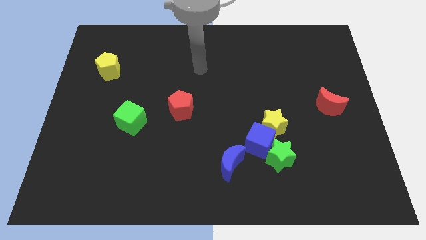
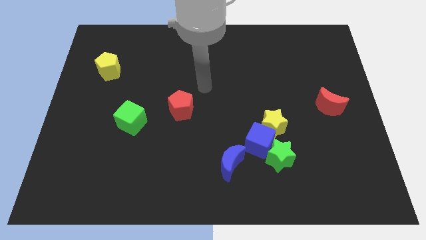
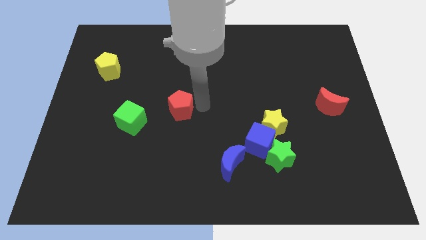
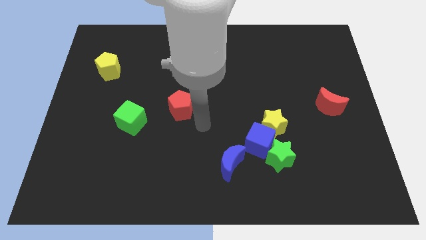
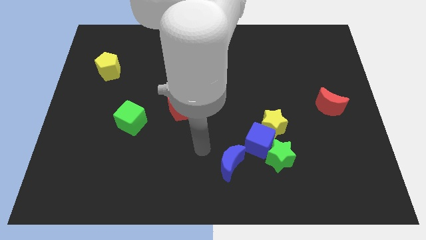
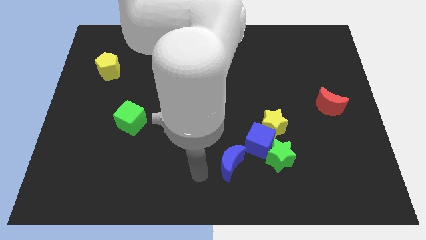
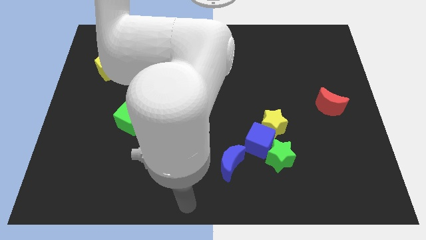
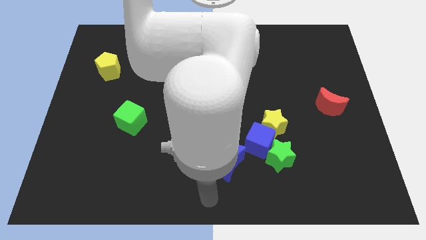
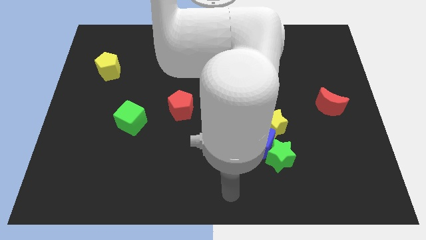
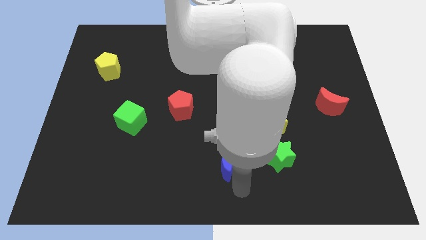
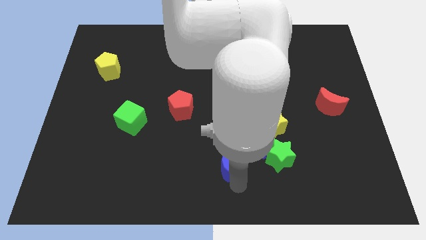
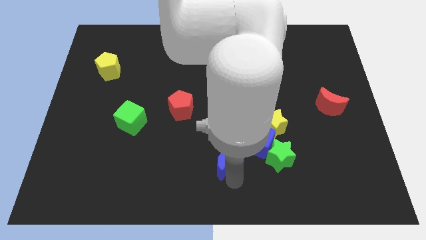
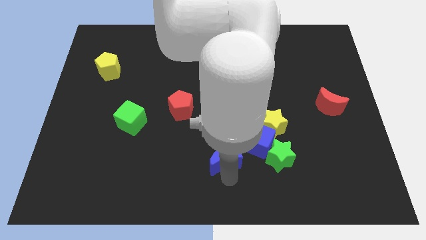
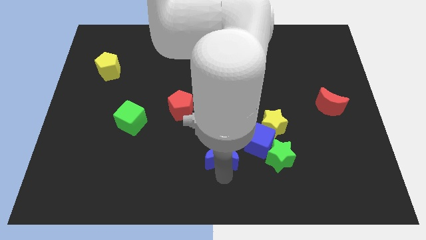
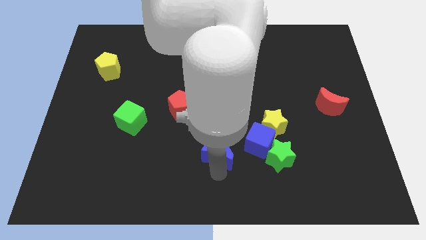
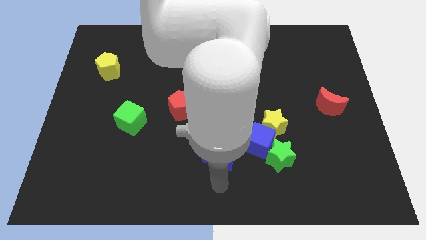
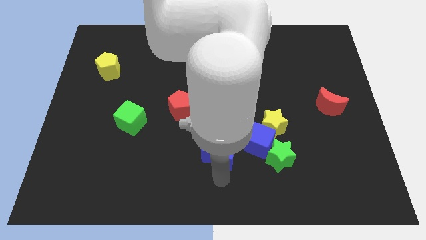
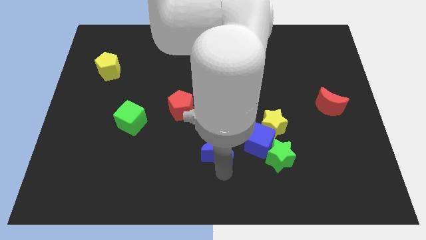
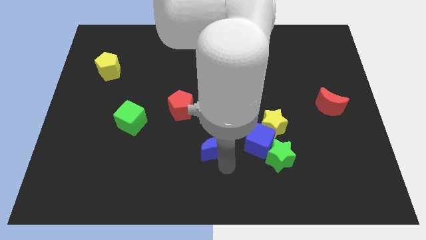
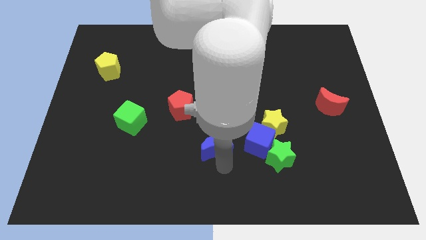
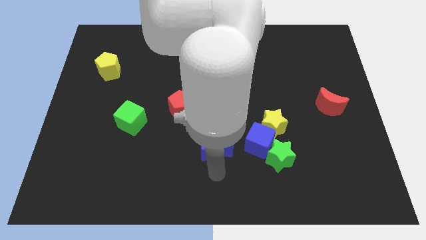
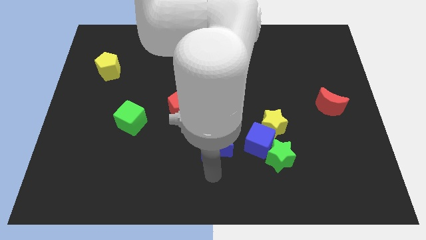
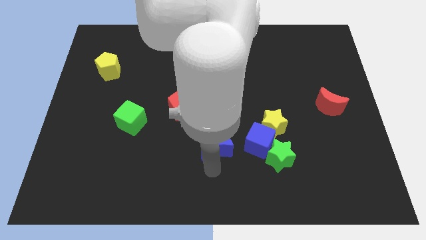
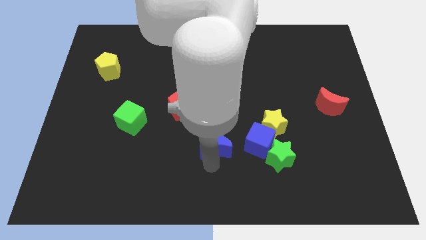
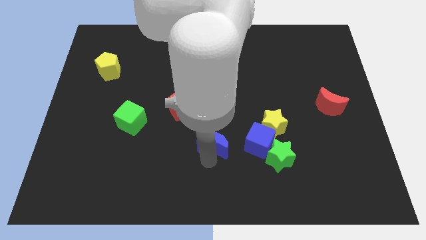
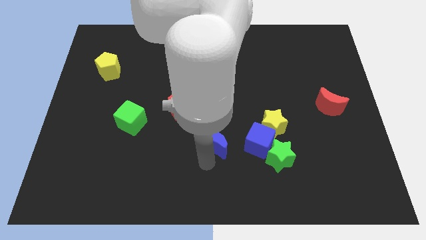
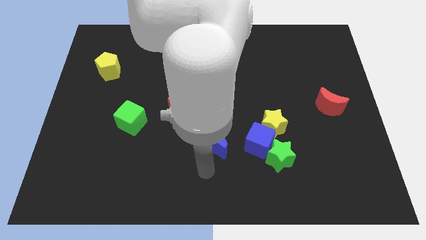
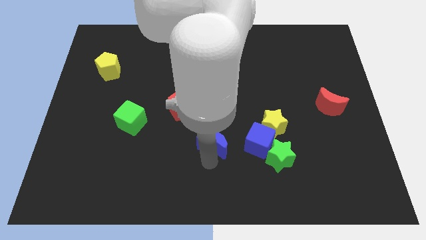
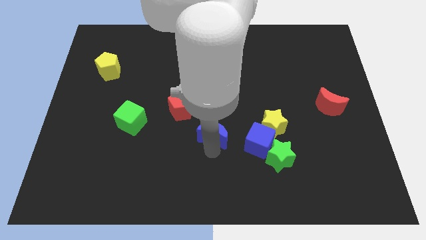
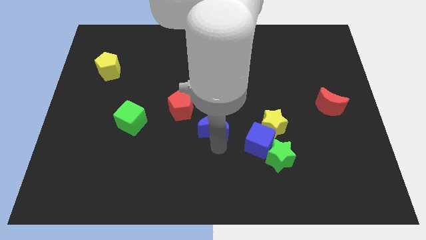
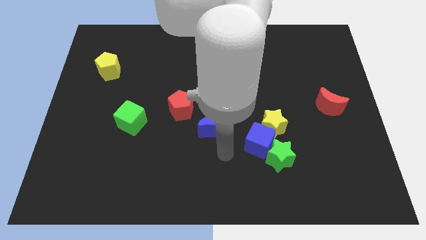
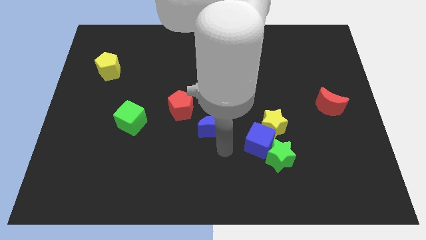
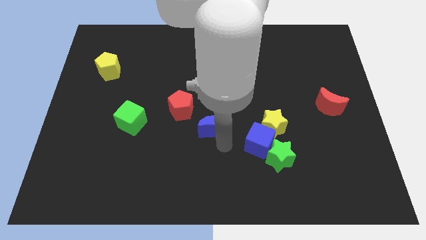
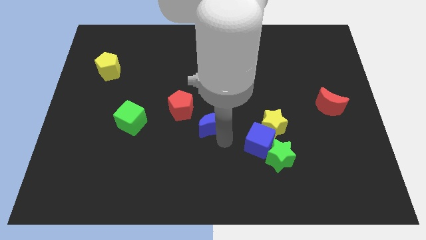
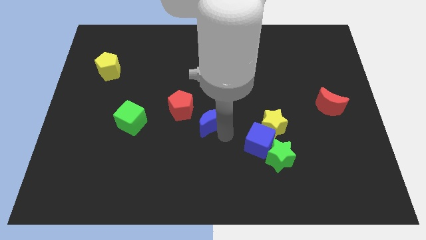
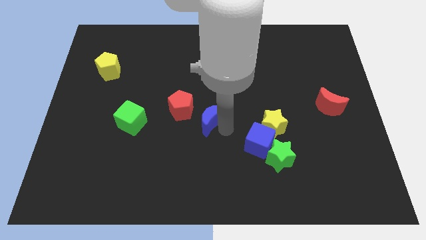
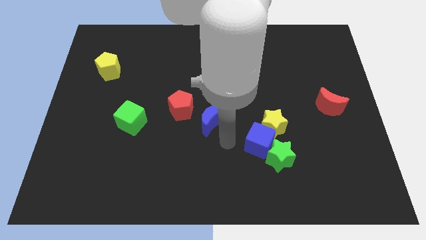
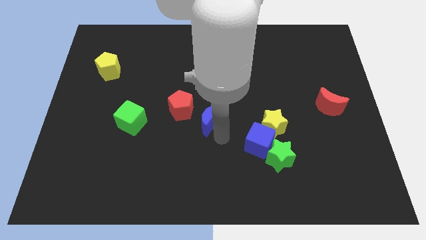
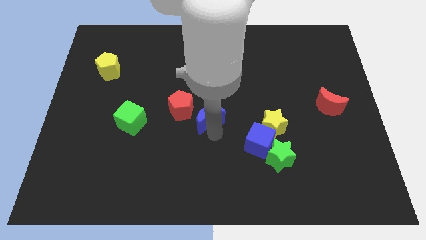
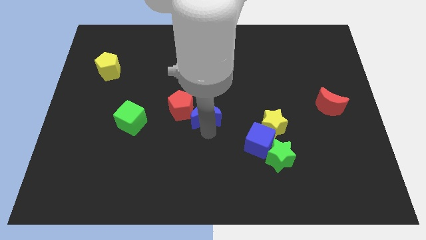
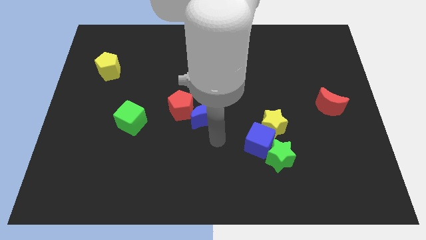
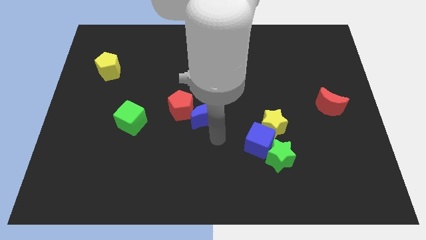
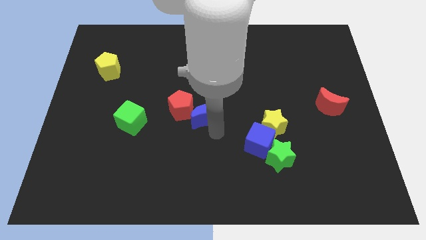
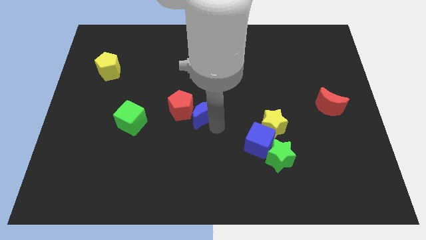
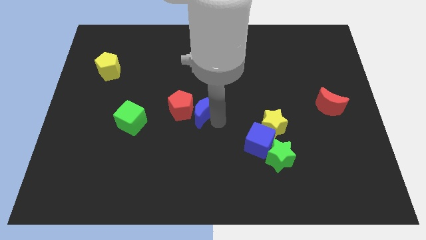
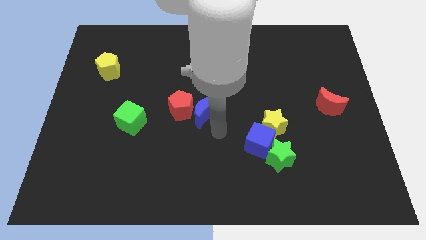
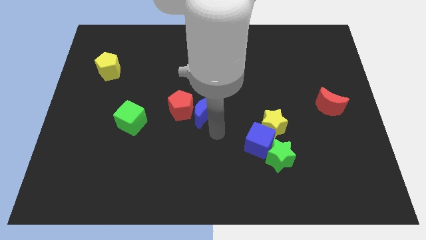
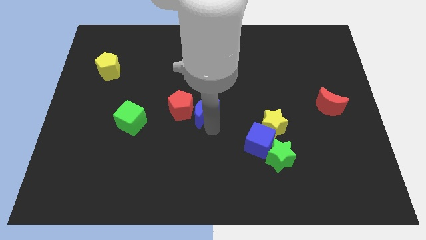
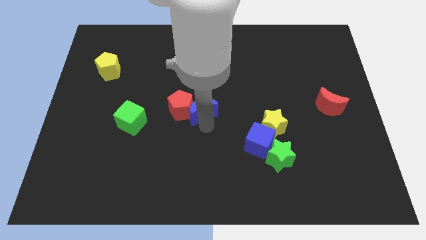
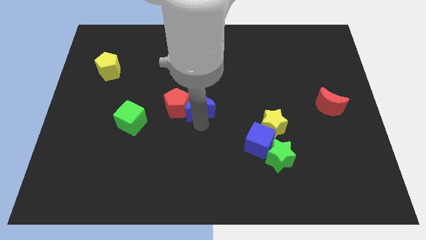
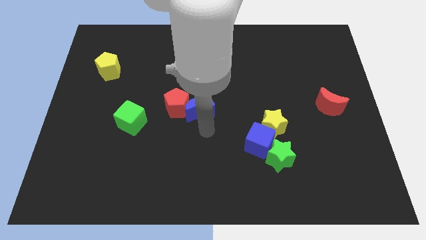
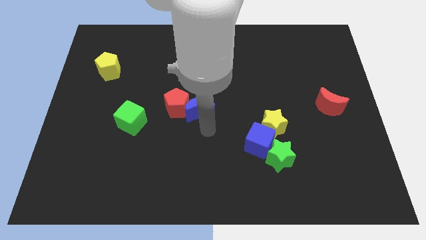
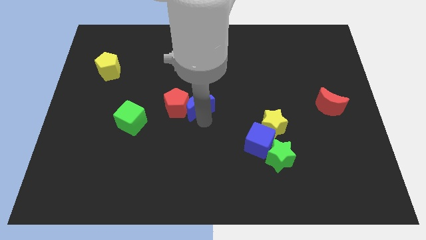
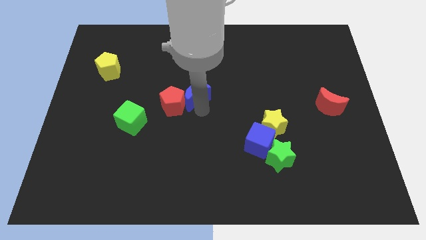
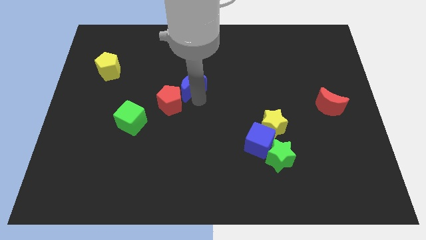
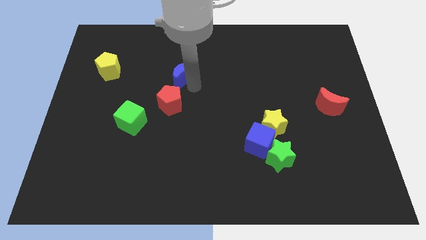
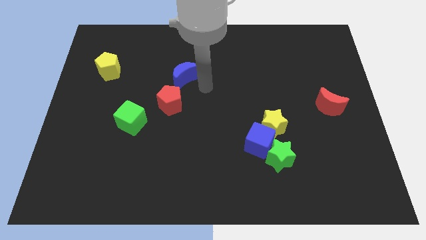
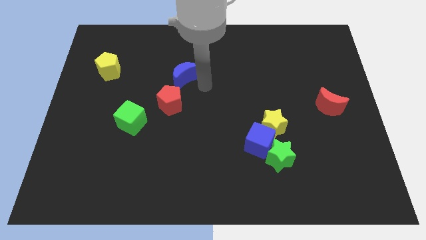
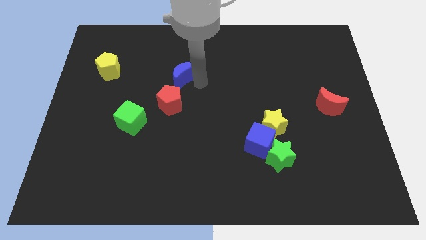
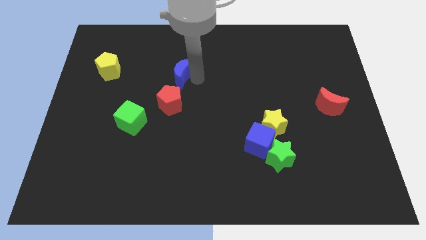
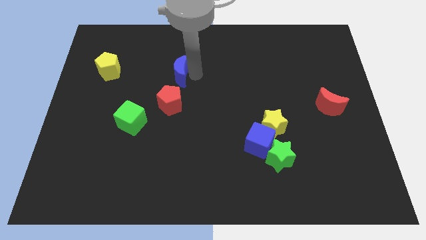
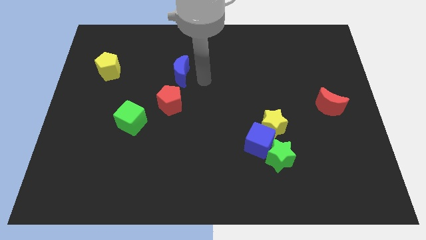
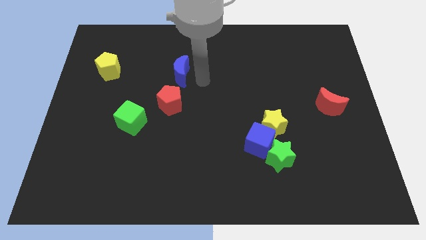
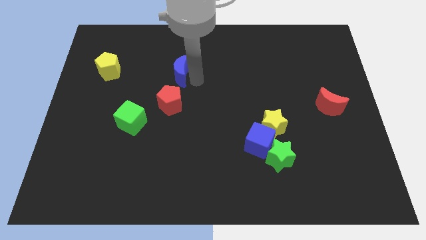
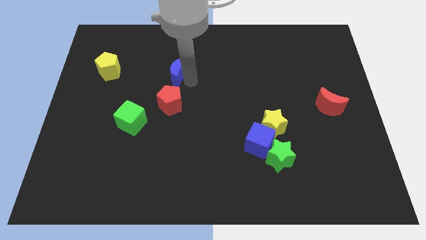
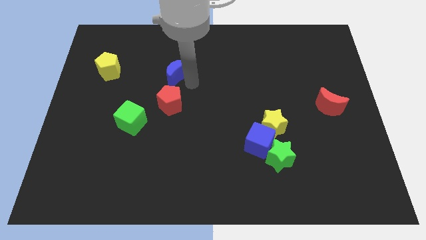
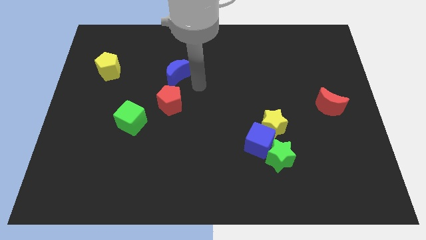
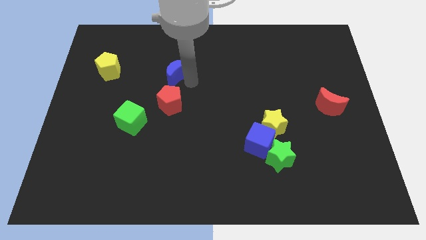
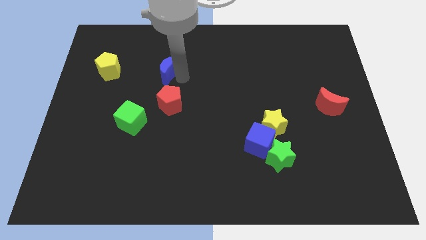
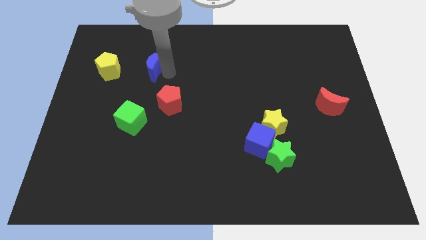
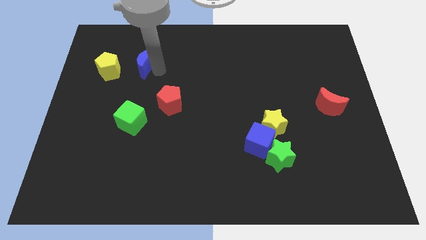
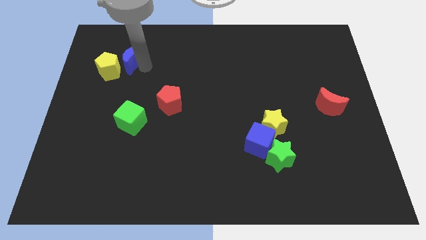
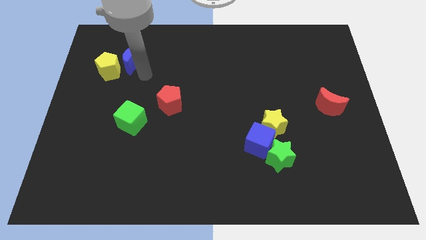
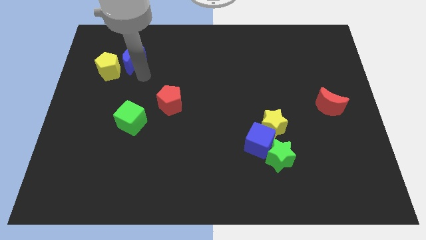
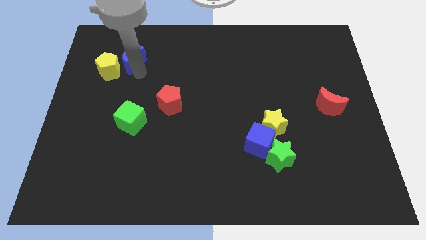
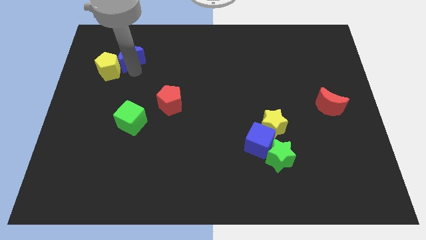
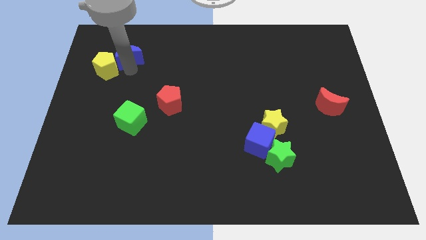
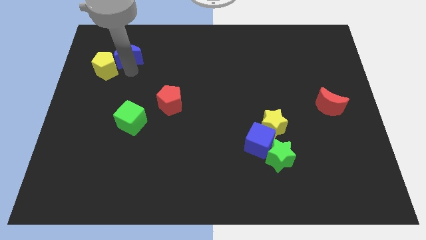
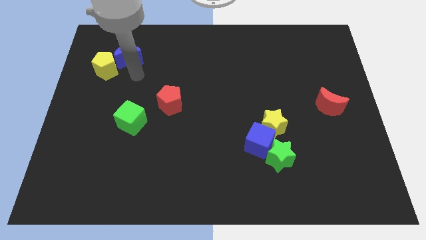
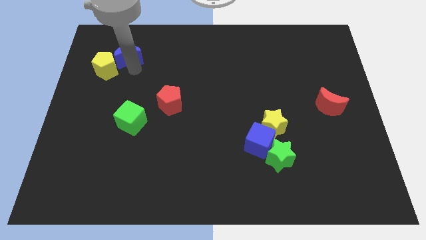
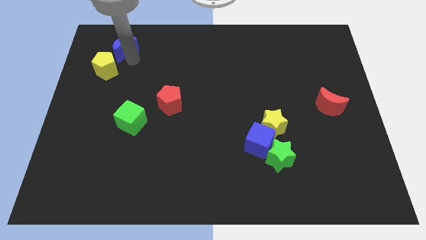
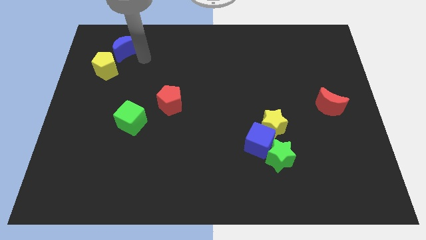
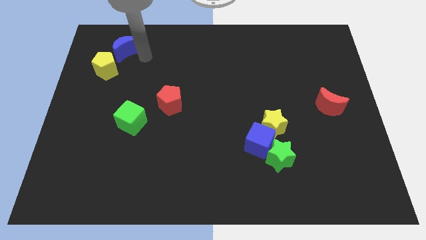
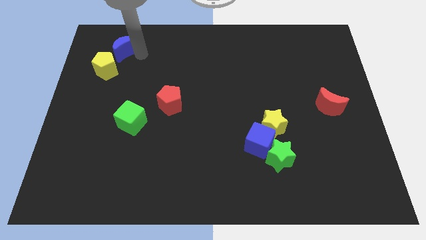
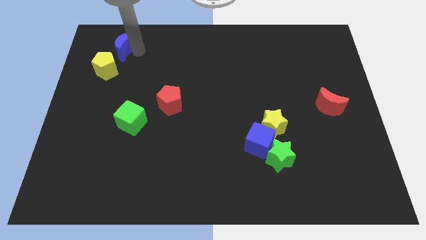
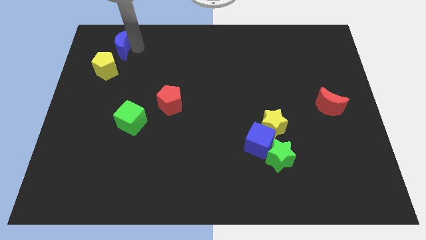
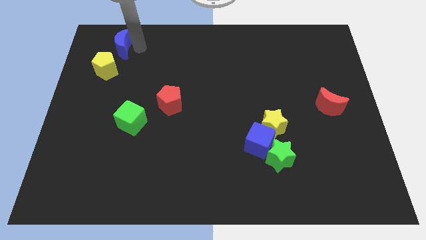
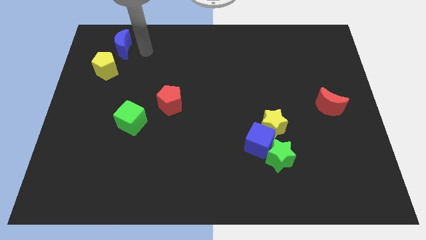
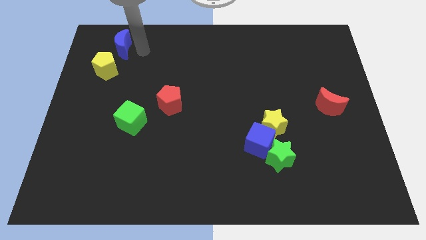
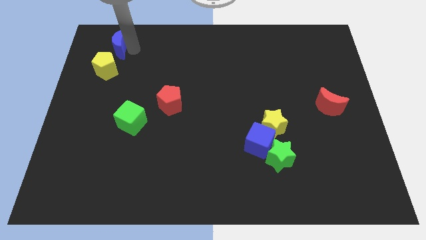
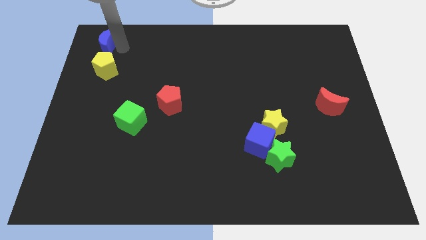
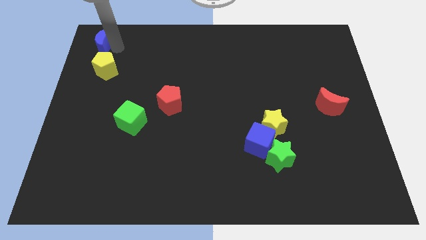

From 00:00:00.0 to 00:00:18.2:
put the blue moon to the top left of the board
